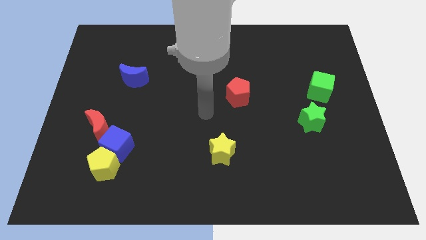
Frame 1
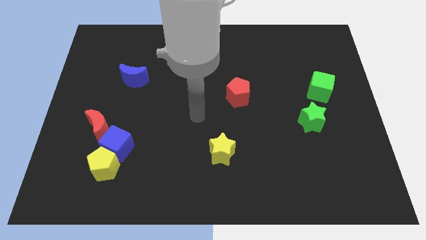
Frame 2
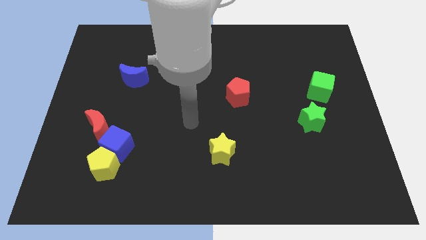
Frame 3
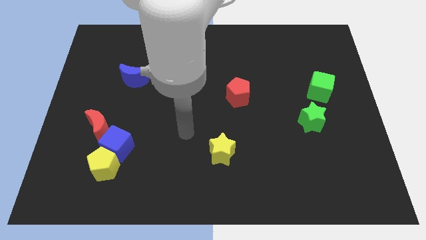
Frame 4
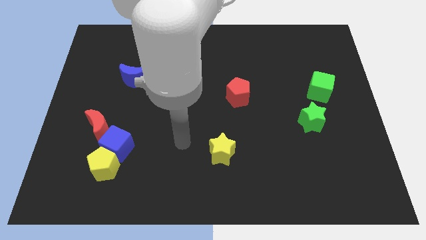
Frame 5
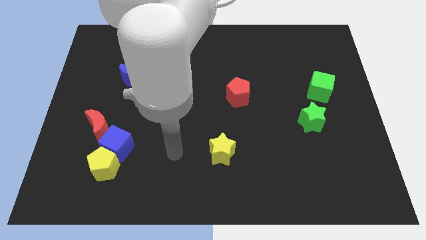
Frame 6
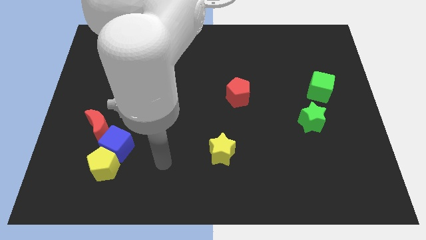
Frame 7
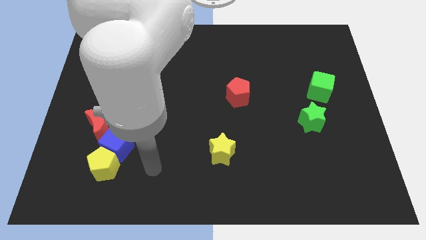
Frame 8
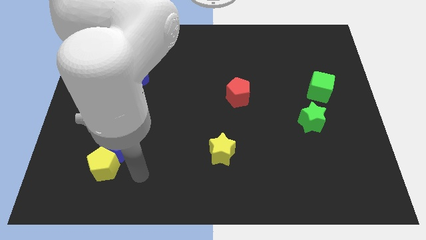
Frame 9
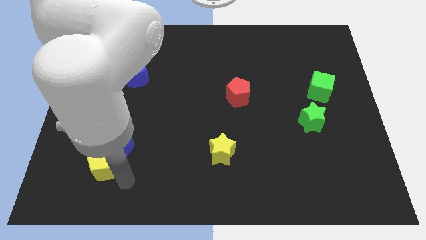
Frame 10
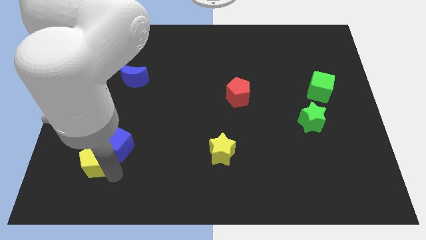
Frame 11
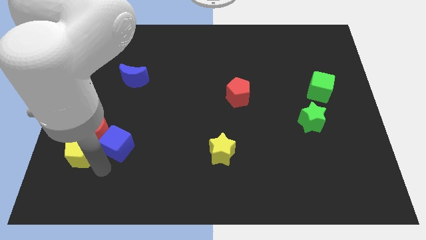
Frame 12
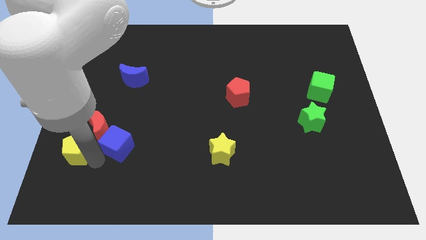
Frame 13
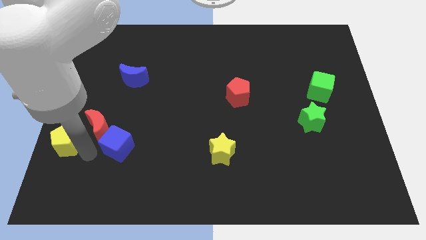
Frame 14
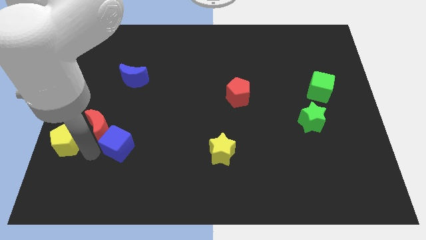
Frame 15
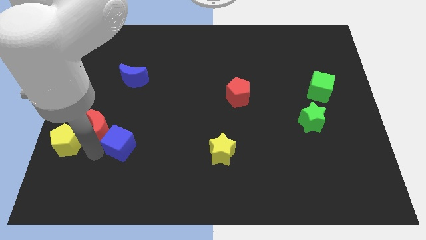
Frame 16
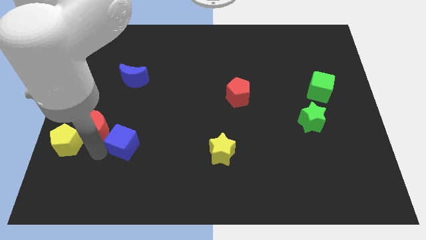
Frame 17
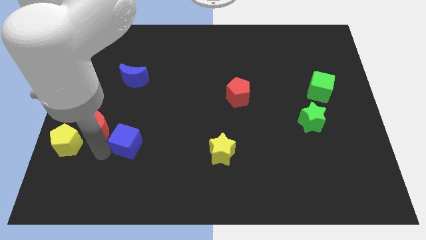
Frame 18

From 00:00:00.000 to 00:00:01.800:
move the blue cube away from the yellow pentagon and red moon

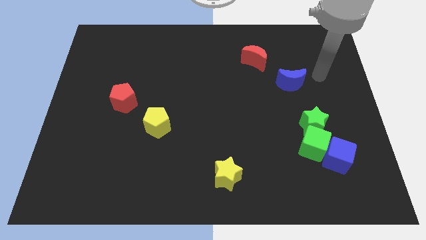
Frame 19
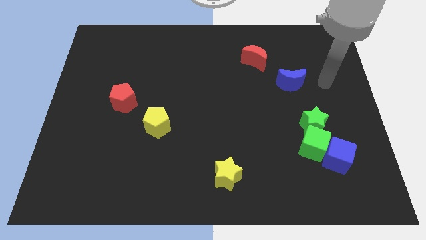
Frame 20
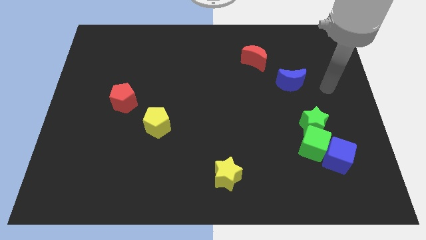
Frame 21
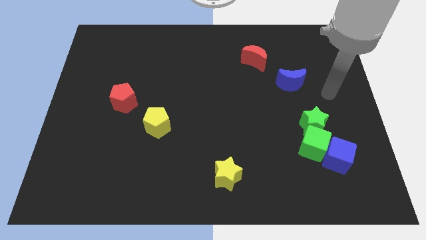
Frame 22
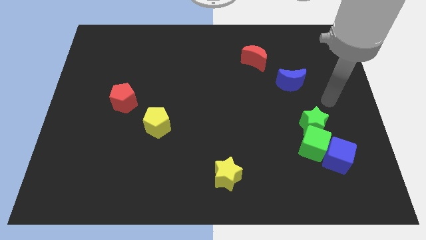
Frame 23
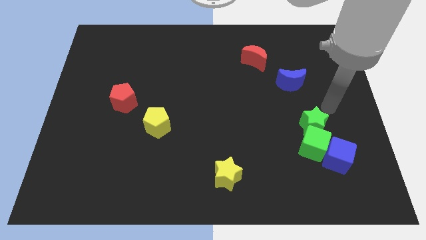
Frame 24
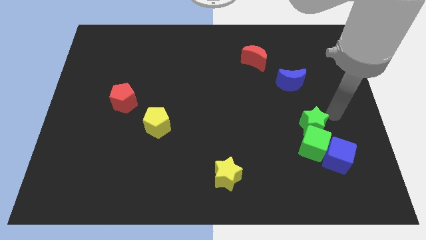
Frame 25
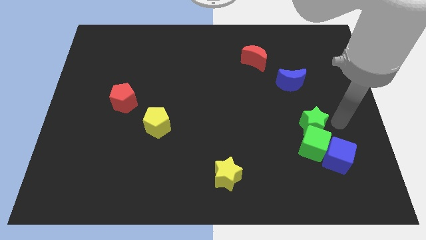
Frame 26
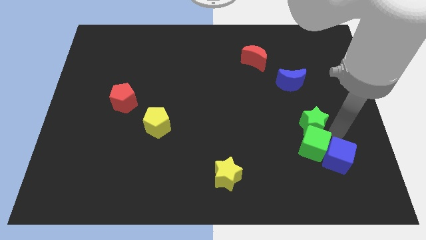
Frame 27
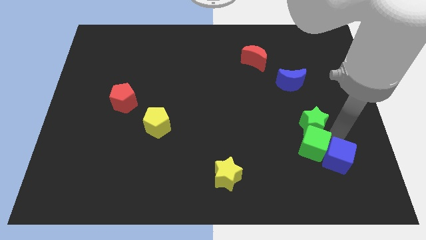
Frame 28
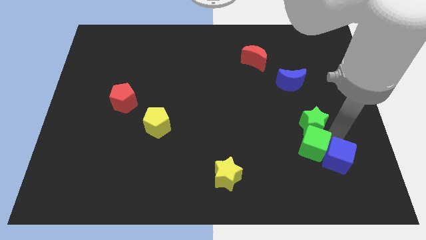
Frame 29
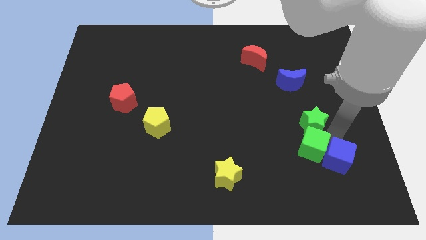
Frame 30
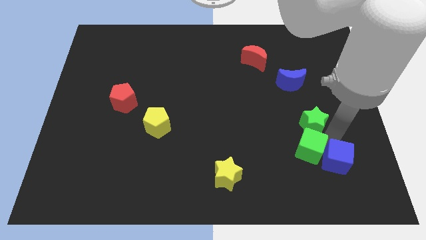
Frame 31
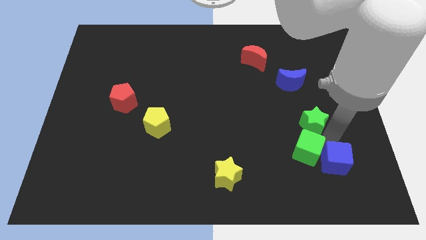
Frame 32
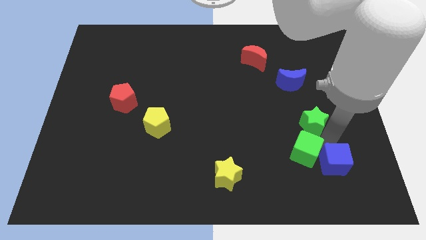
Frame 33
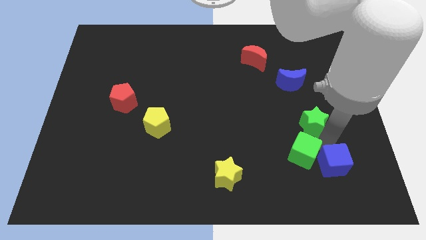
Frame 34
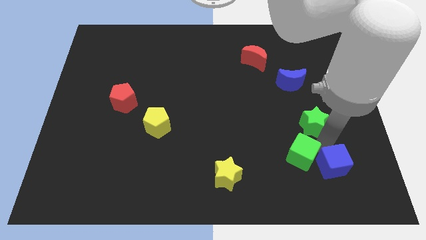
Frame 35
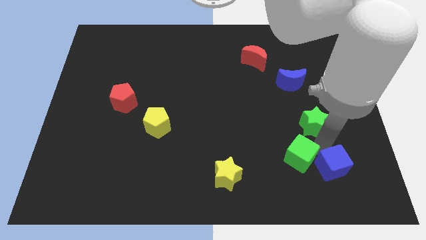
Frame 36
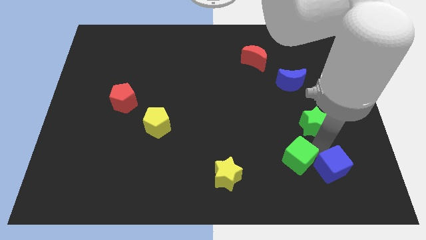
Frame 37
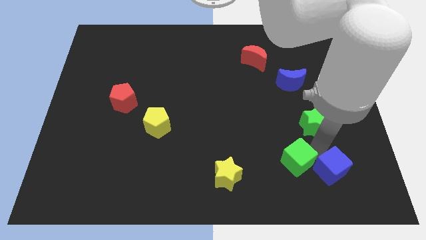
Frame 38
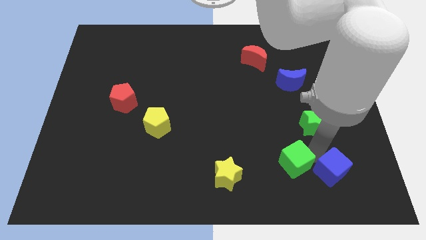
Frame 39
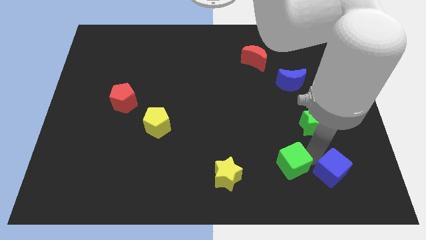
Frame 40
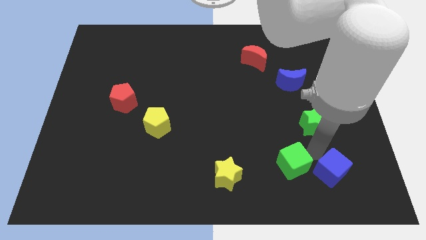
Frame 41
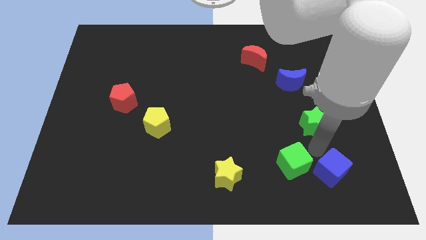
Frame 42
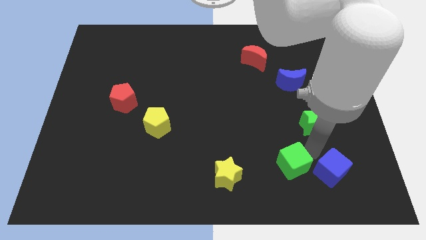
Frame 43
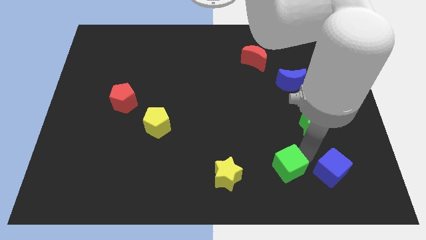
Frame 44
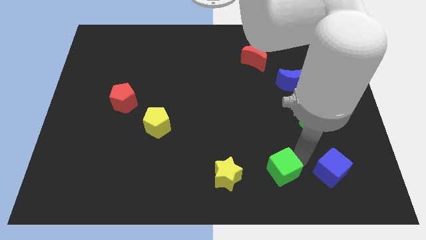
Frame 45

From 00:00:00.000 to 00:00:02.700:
move the green cube away from the green star and blue cube

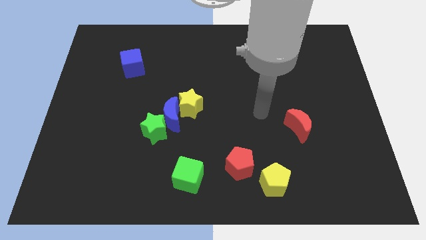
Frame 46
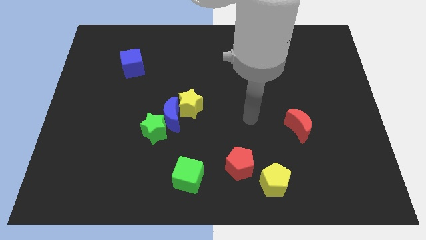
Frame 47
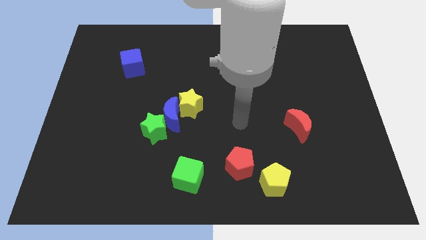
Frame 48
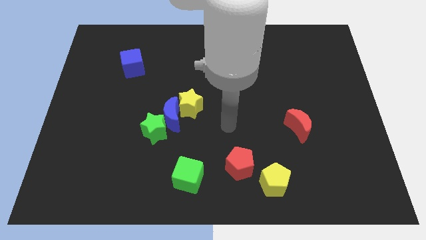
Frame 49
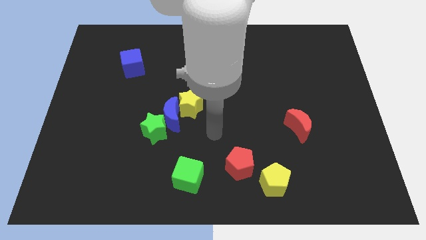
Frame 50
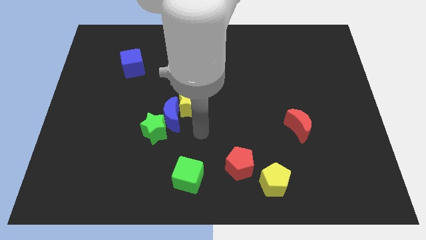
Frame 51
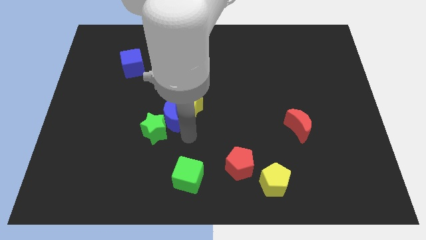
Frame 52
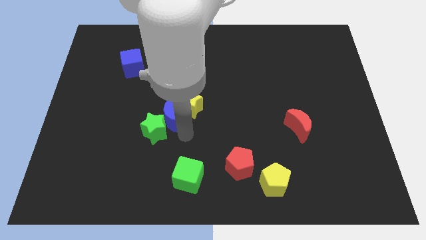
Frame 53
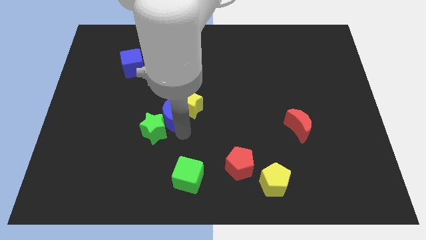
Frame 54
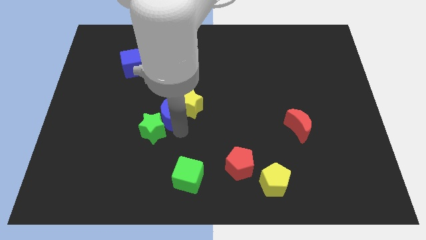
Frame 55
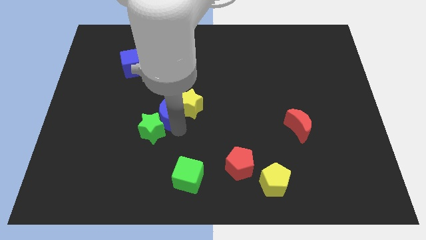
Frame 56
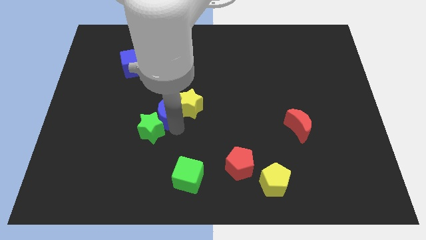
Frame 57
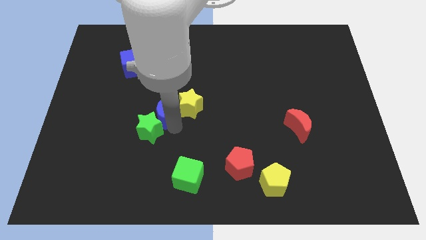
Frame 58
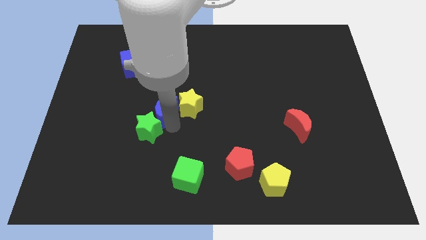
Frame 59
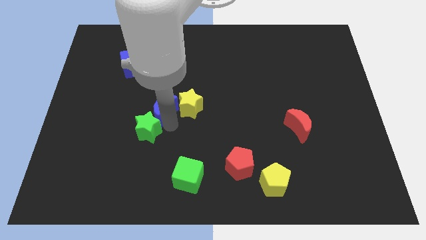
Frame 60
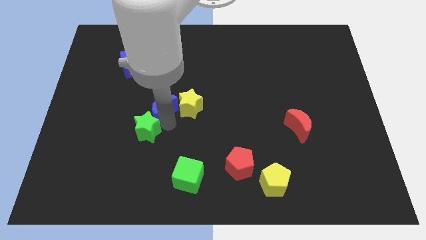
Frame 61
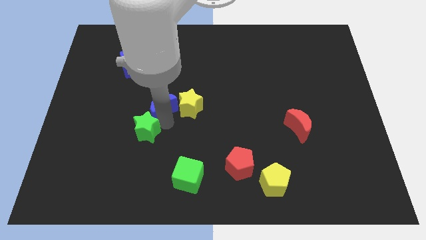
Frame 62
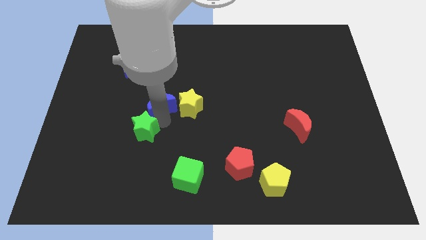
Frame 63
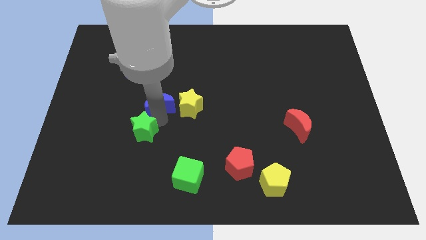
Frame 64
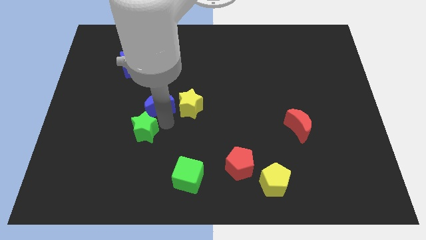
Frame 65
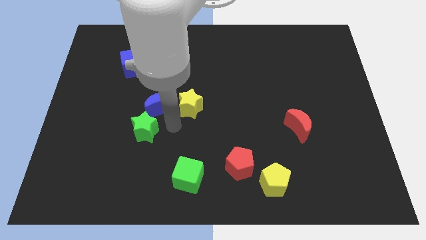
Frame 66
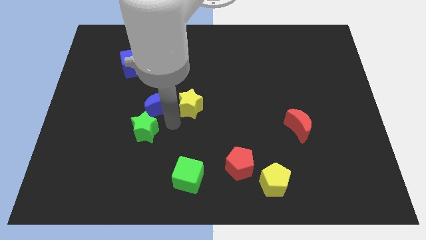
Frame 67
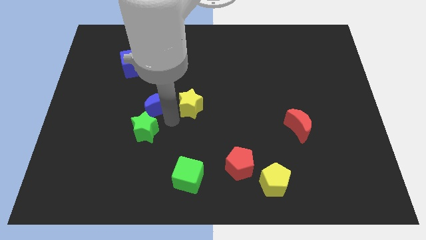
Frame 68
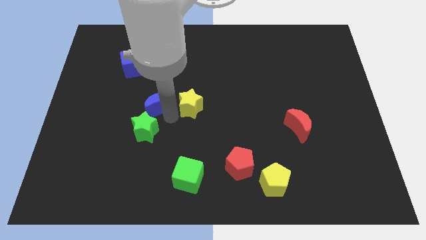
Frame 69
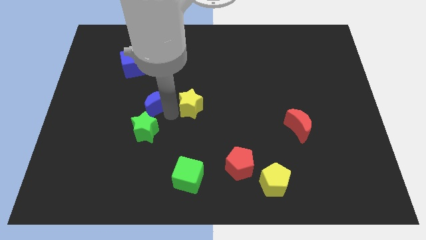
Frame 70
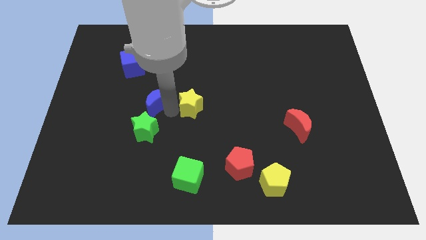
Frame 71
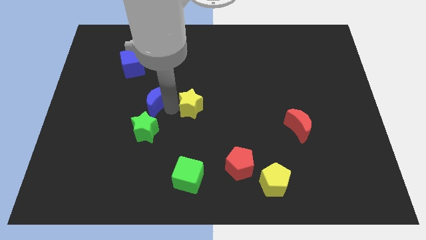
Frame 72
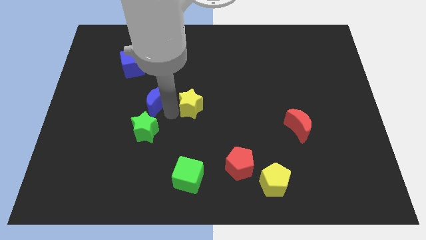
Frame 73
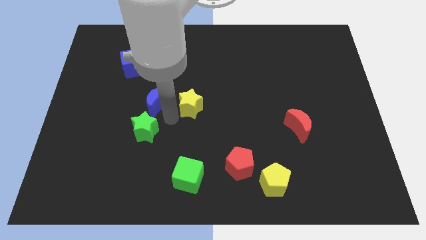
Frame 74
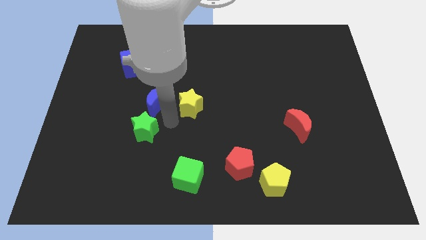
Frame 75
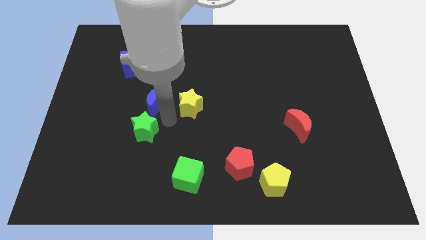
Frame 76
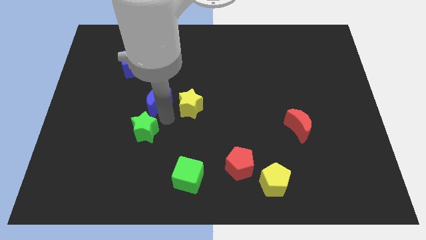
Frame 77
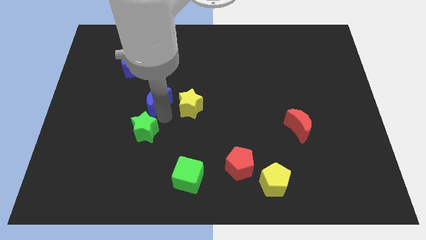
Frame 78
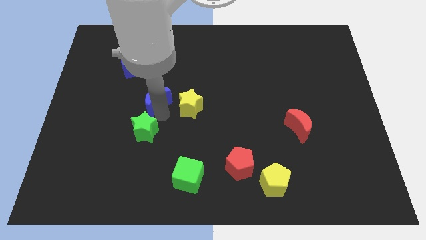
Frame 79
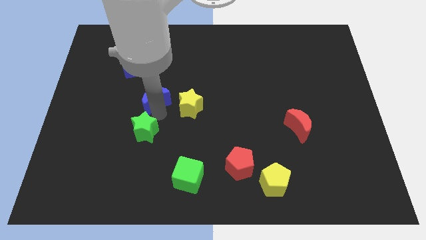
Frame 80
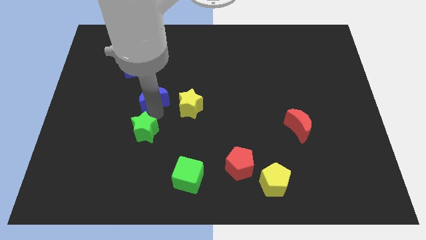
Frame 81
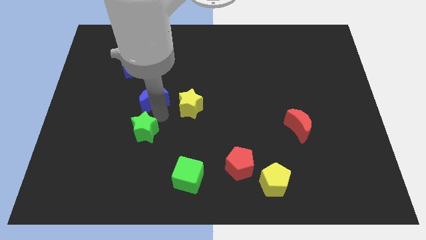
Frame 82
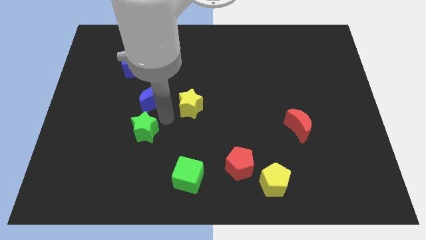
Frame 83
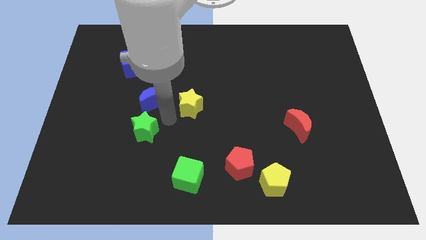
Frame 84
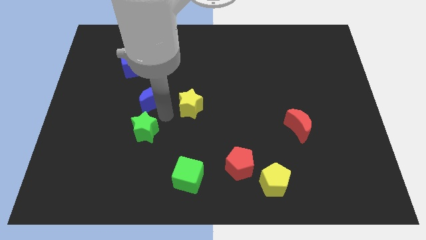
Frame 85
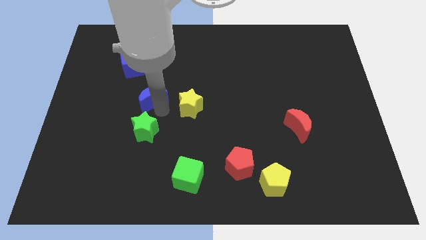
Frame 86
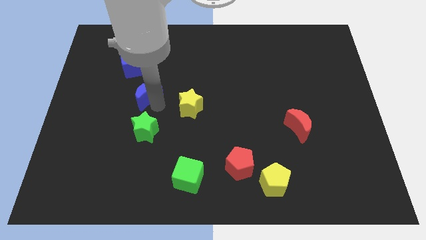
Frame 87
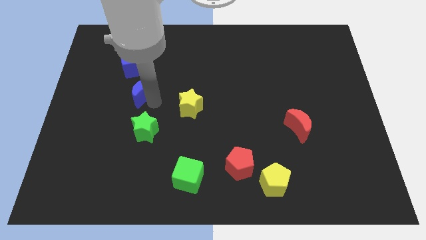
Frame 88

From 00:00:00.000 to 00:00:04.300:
pull the blue moon apart from the yellow star and green star

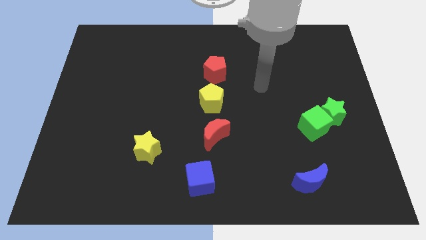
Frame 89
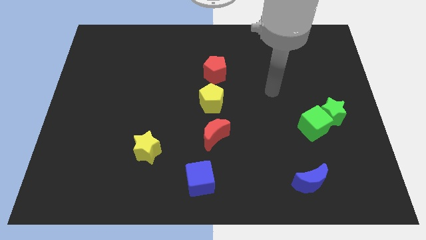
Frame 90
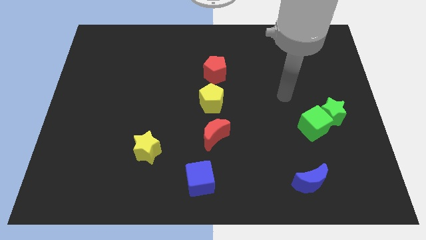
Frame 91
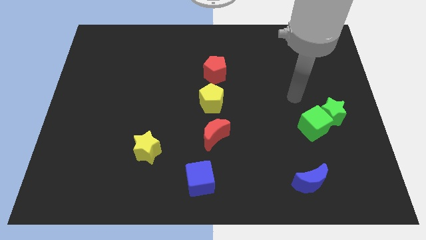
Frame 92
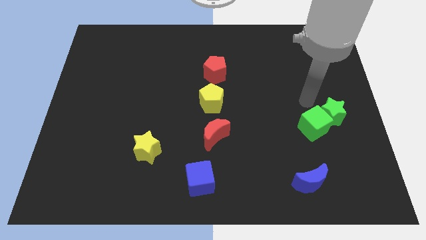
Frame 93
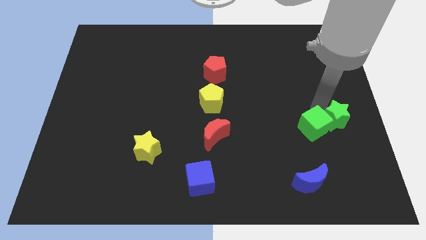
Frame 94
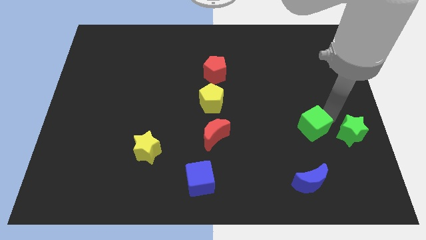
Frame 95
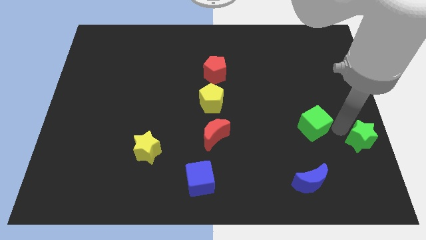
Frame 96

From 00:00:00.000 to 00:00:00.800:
pull the green cube apart from the green star

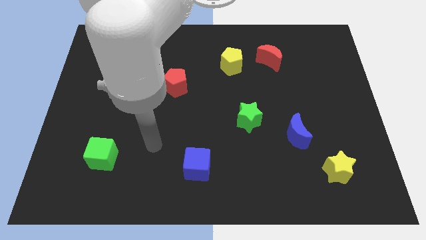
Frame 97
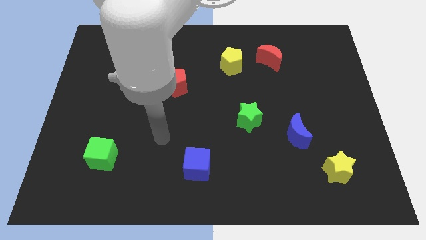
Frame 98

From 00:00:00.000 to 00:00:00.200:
pull the red moon apart from the yellow pentagon
